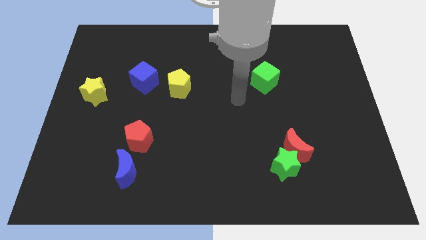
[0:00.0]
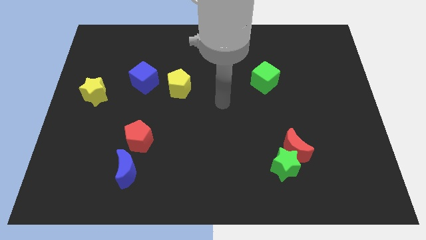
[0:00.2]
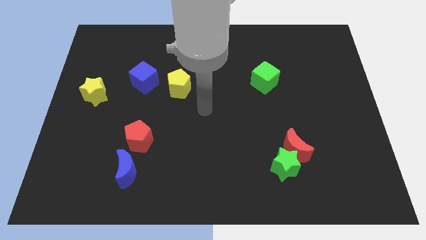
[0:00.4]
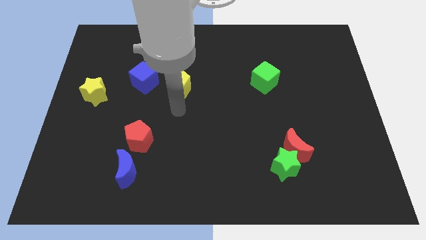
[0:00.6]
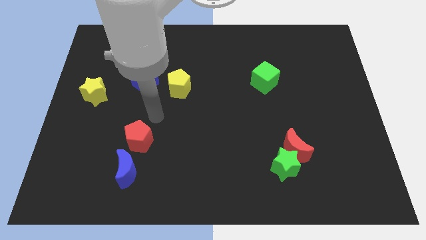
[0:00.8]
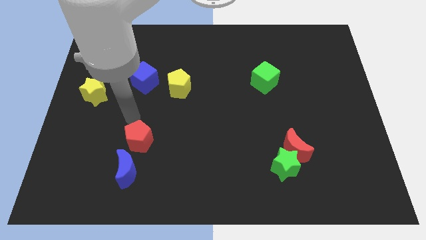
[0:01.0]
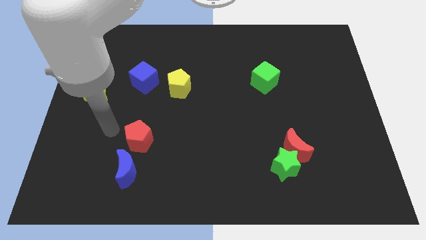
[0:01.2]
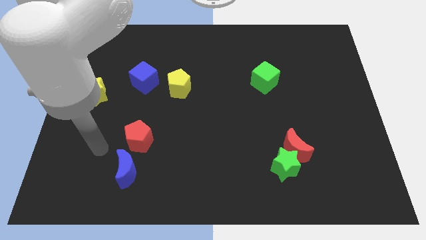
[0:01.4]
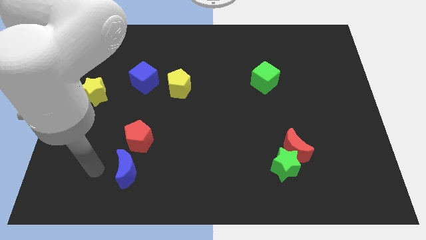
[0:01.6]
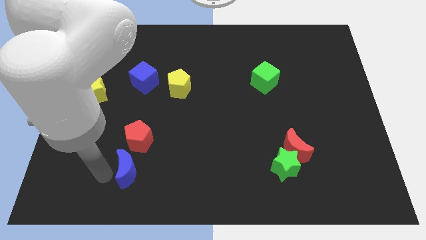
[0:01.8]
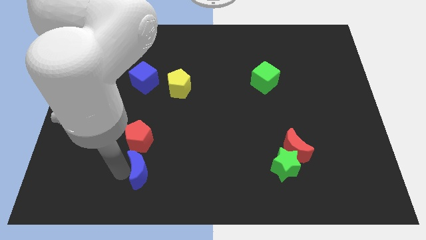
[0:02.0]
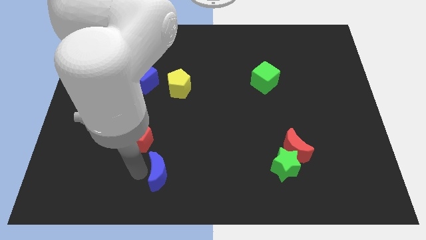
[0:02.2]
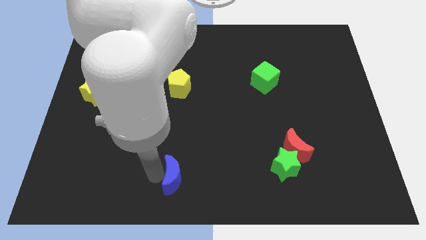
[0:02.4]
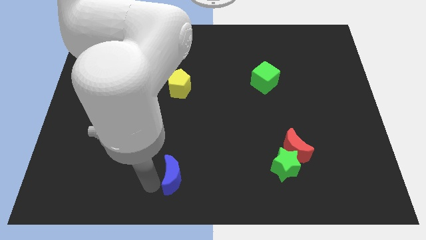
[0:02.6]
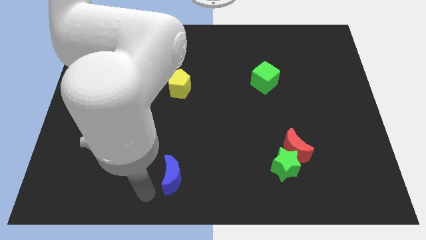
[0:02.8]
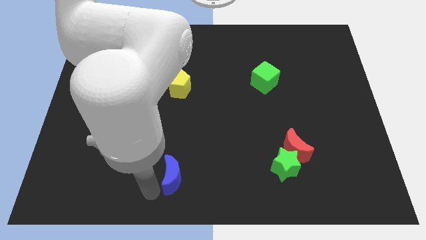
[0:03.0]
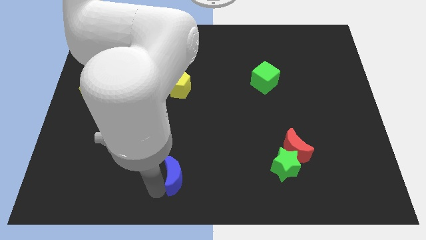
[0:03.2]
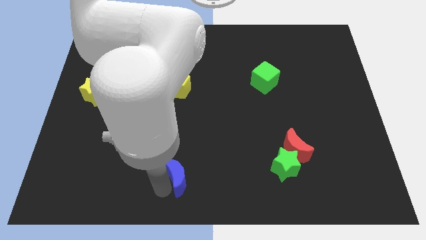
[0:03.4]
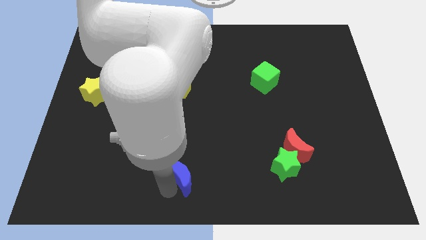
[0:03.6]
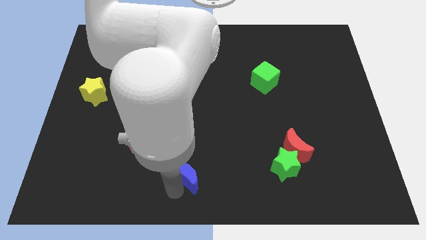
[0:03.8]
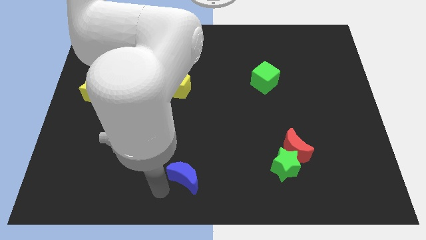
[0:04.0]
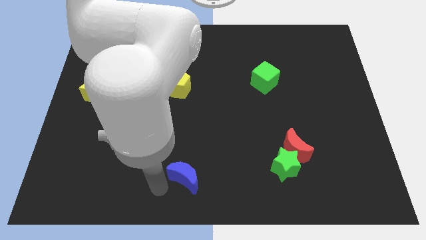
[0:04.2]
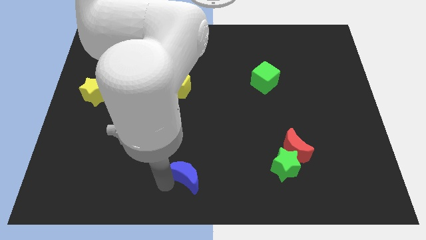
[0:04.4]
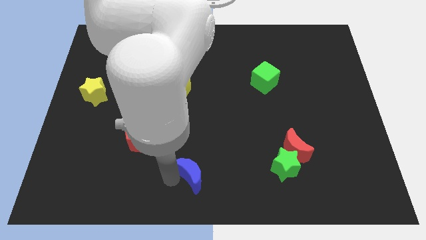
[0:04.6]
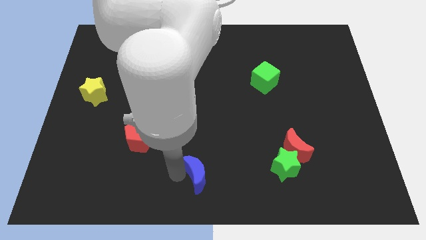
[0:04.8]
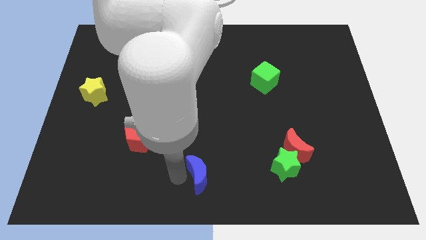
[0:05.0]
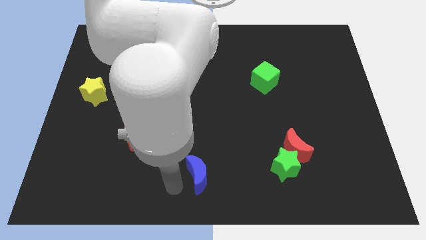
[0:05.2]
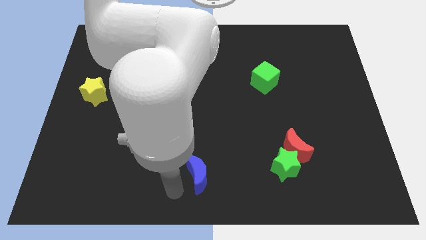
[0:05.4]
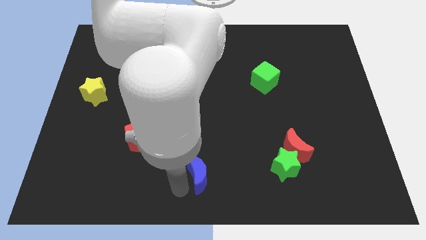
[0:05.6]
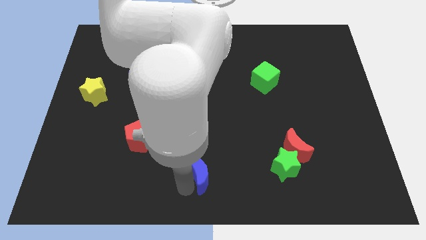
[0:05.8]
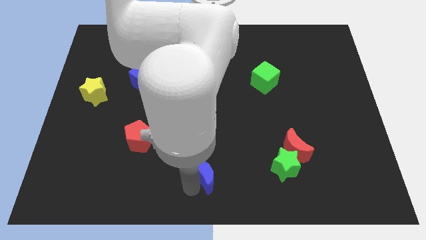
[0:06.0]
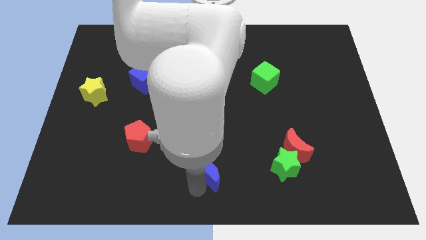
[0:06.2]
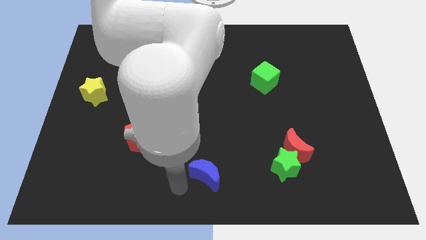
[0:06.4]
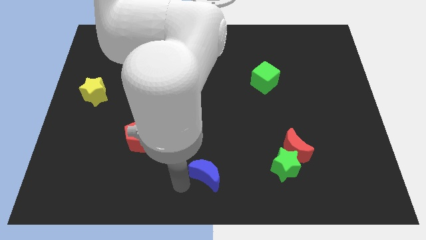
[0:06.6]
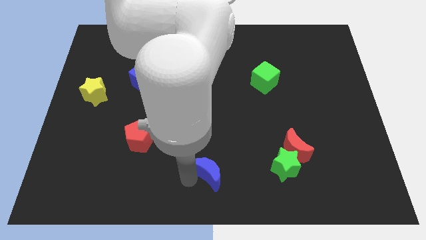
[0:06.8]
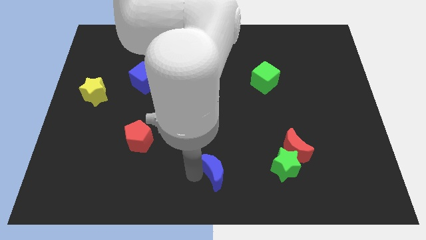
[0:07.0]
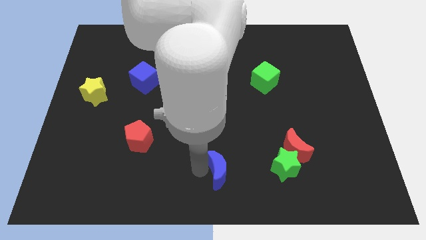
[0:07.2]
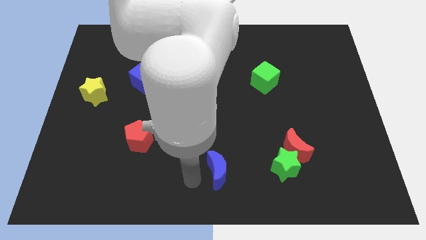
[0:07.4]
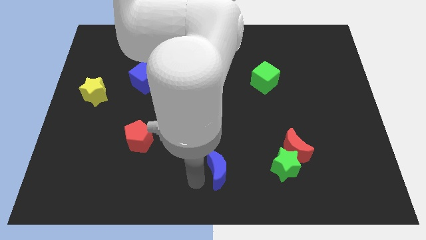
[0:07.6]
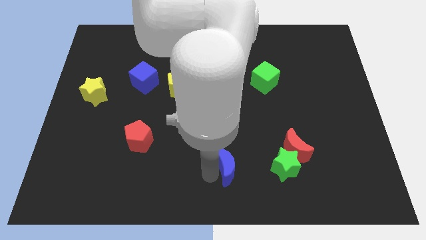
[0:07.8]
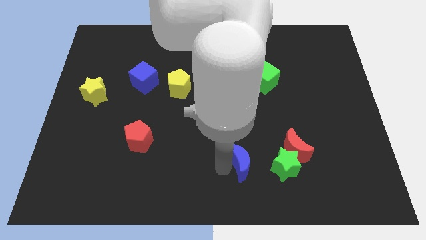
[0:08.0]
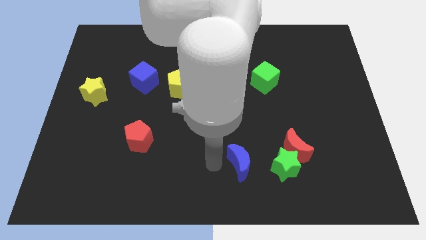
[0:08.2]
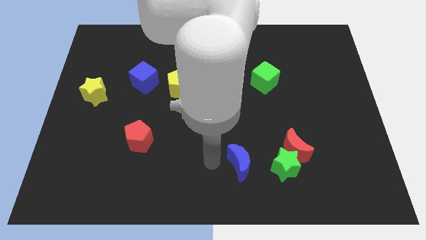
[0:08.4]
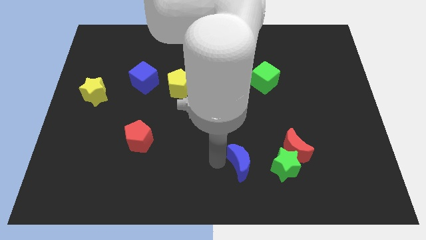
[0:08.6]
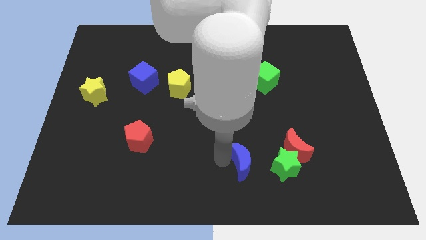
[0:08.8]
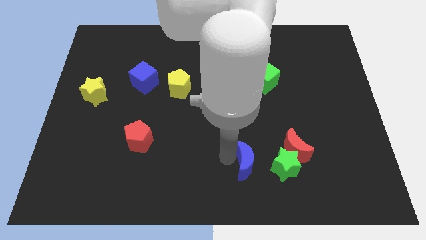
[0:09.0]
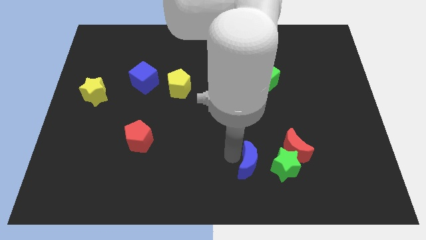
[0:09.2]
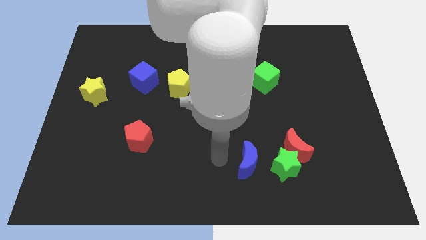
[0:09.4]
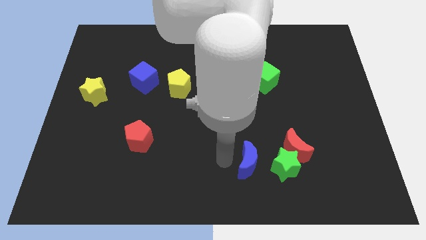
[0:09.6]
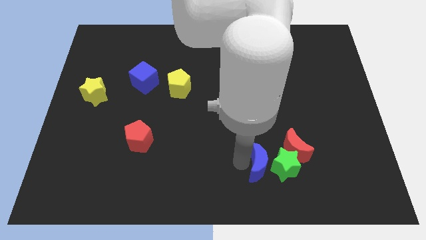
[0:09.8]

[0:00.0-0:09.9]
move the blue moon next to the green star

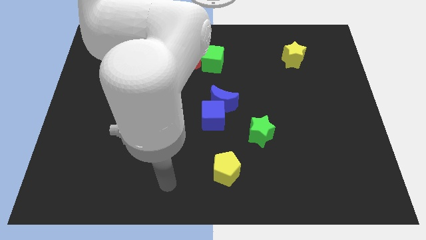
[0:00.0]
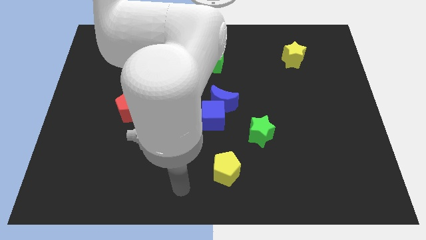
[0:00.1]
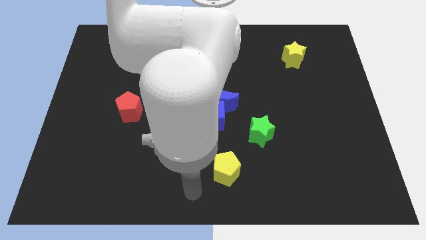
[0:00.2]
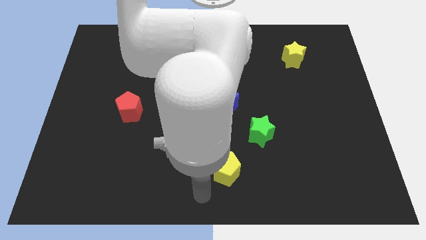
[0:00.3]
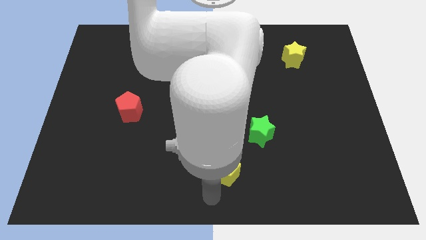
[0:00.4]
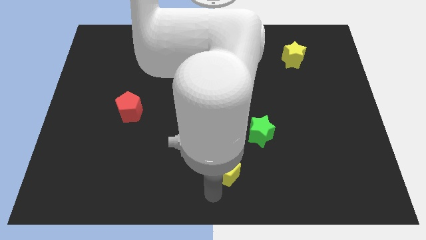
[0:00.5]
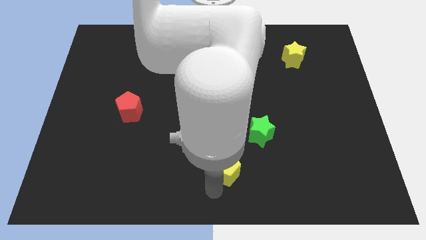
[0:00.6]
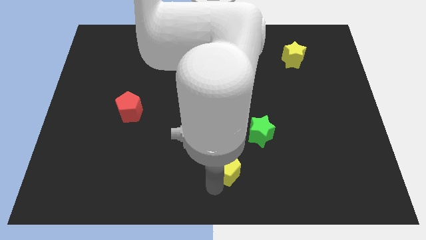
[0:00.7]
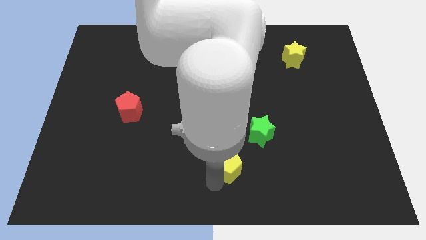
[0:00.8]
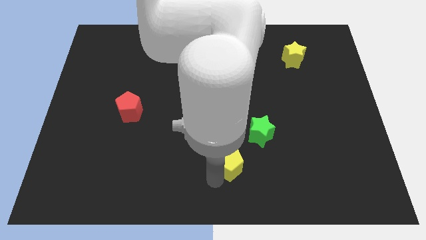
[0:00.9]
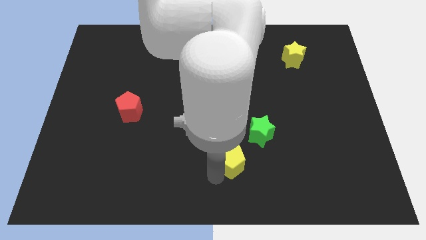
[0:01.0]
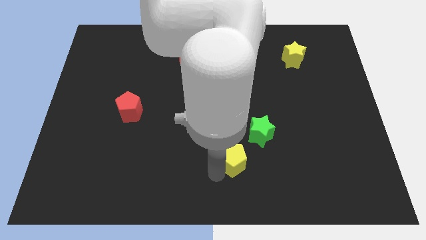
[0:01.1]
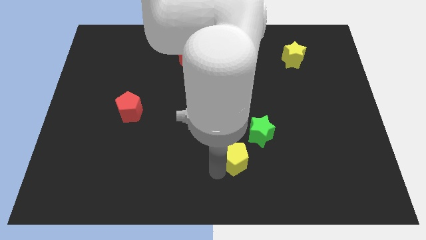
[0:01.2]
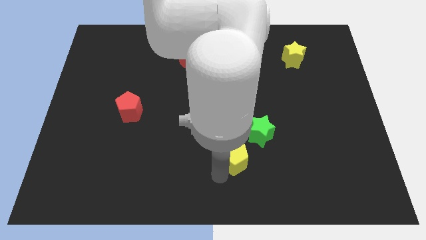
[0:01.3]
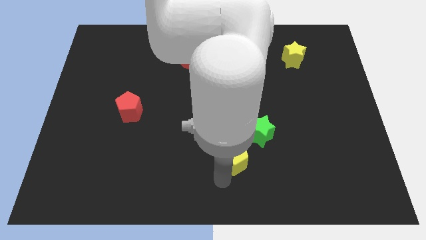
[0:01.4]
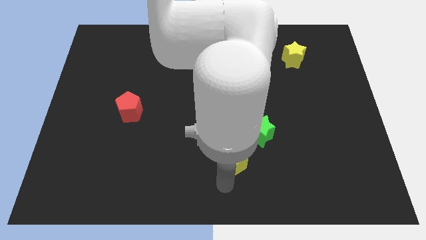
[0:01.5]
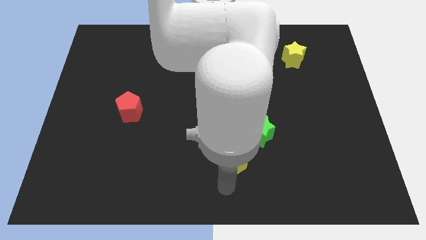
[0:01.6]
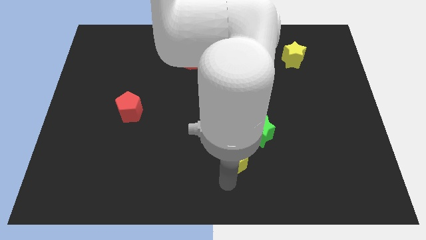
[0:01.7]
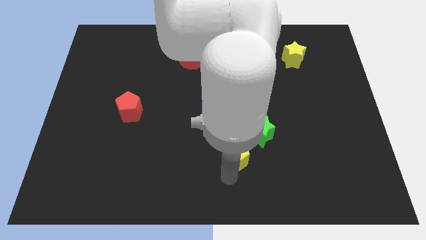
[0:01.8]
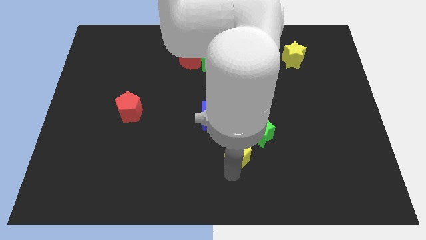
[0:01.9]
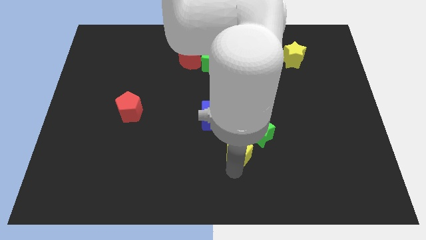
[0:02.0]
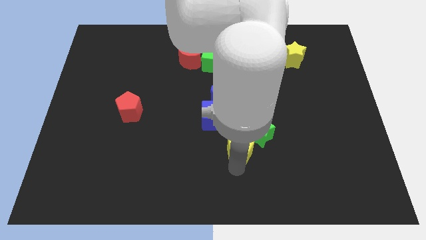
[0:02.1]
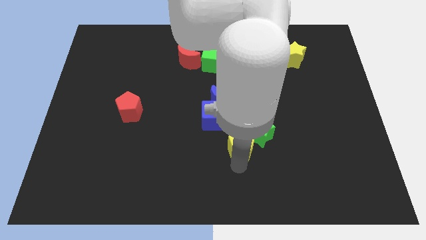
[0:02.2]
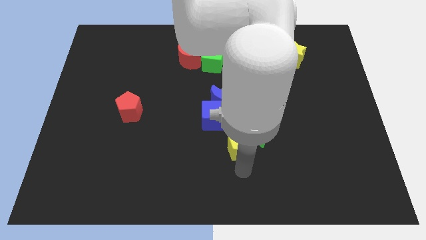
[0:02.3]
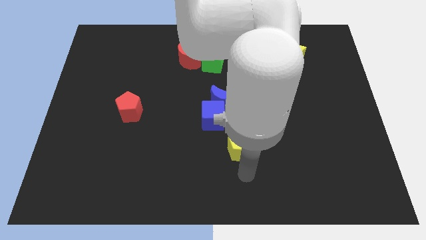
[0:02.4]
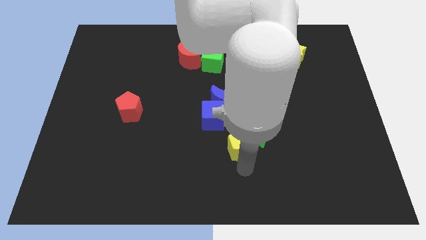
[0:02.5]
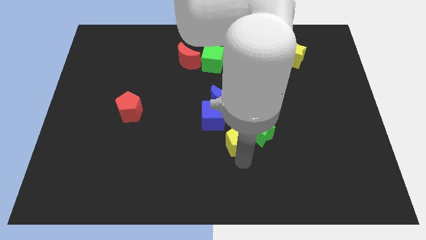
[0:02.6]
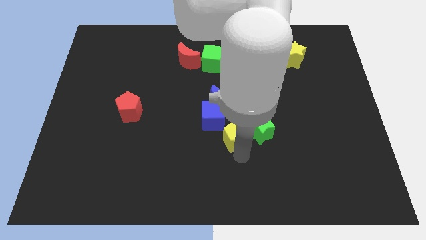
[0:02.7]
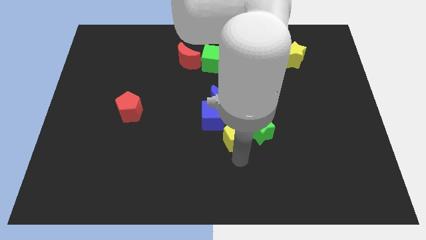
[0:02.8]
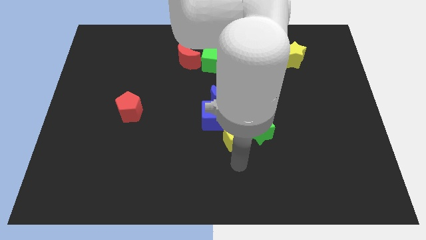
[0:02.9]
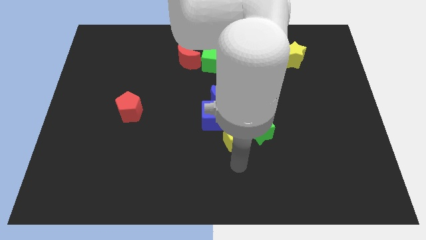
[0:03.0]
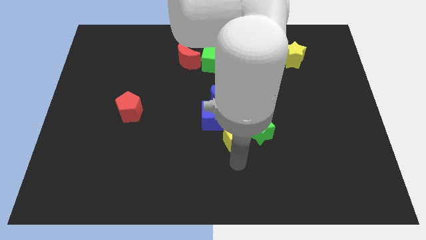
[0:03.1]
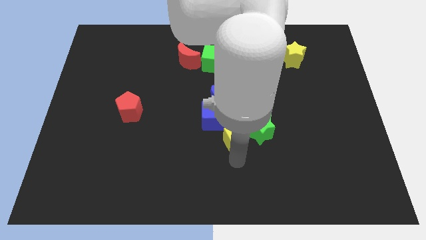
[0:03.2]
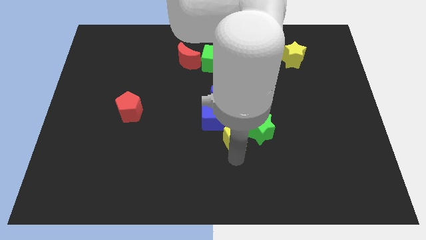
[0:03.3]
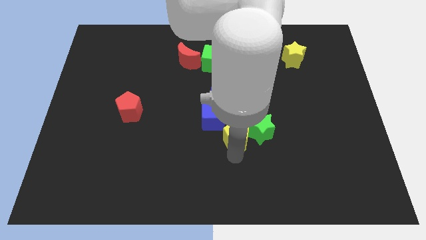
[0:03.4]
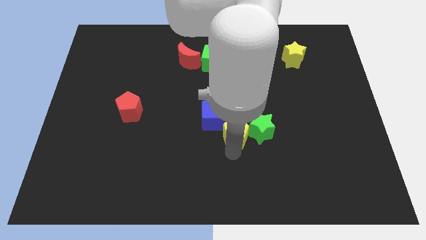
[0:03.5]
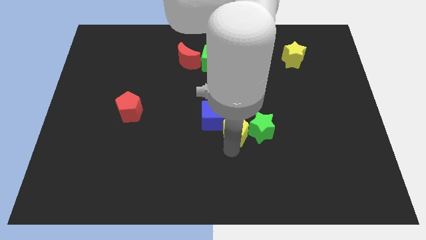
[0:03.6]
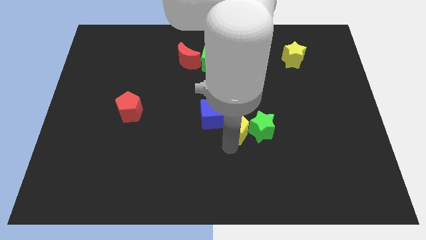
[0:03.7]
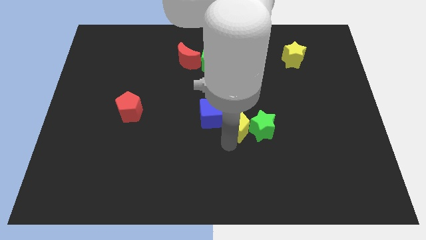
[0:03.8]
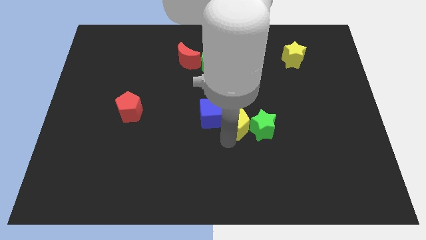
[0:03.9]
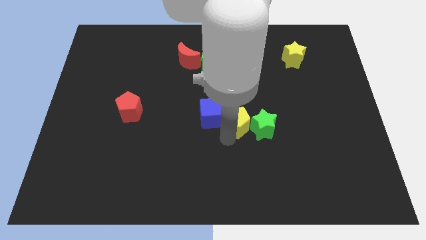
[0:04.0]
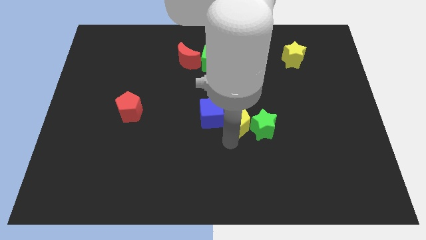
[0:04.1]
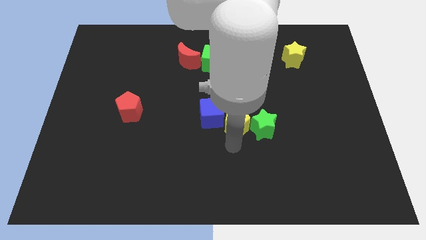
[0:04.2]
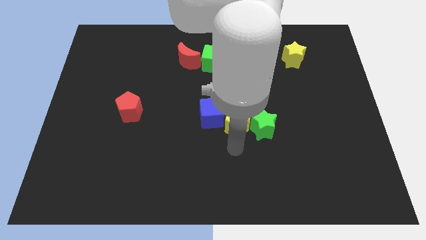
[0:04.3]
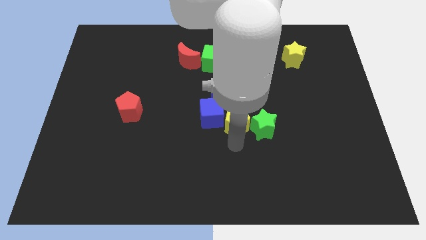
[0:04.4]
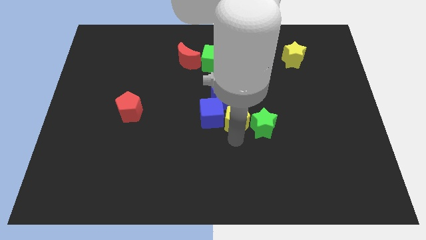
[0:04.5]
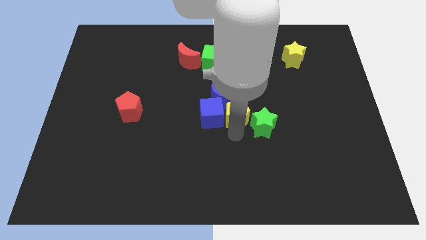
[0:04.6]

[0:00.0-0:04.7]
put the yellow pentagon to the blue moon
